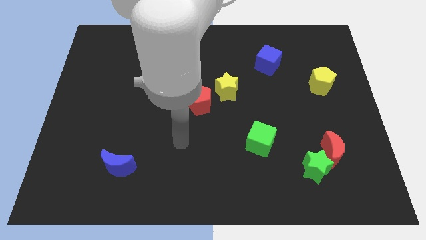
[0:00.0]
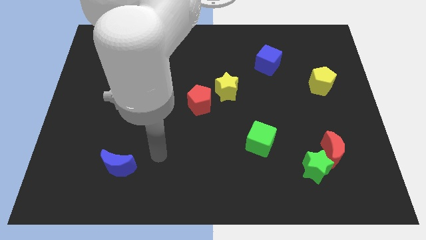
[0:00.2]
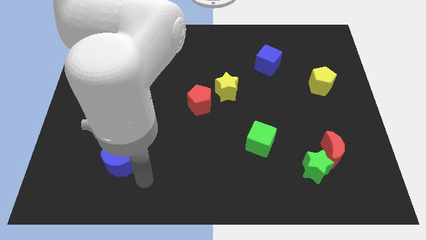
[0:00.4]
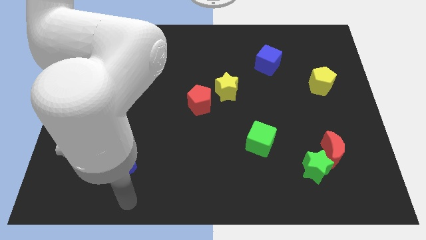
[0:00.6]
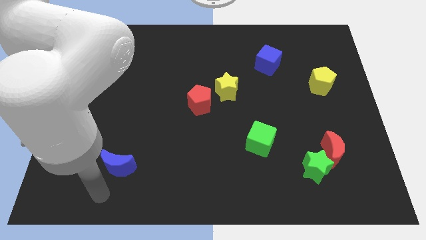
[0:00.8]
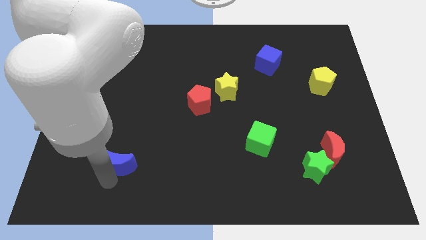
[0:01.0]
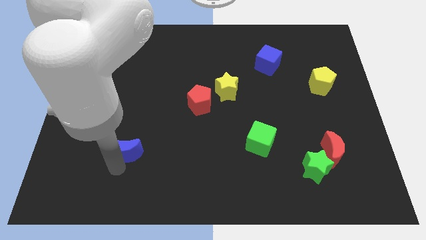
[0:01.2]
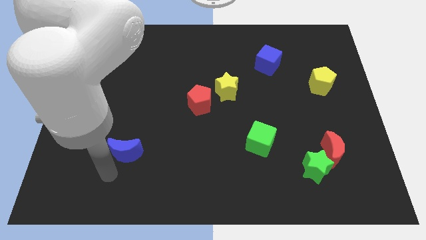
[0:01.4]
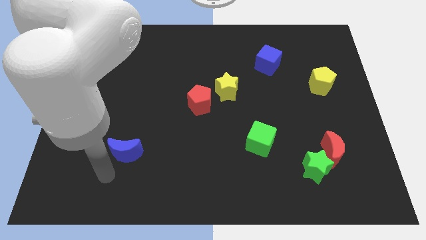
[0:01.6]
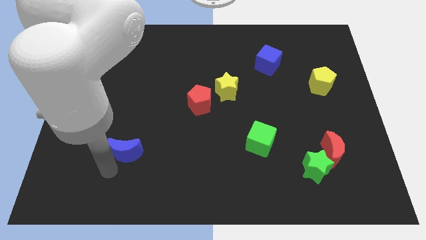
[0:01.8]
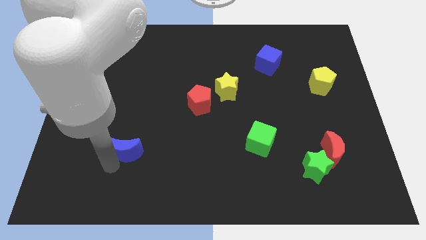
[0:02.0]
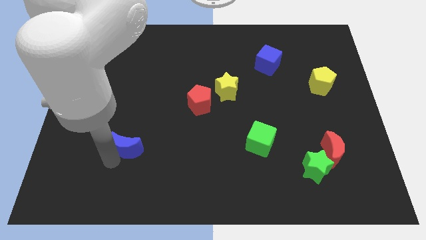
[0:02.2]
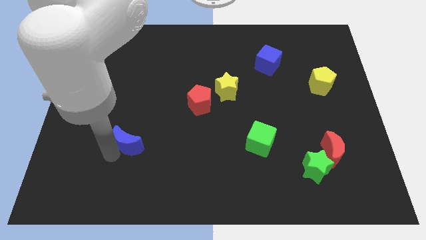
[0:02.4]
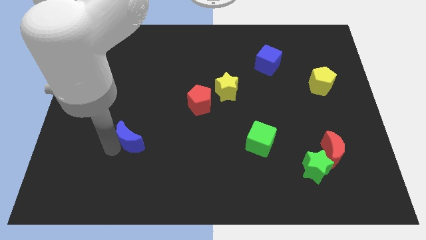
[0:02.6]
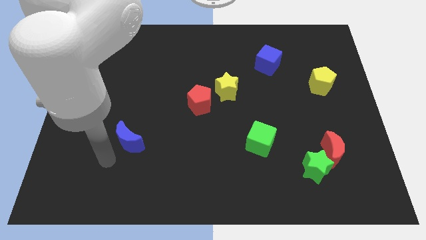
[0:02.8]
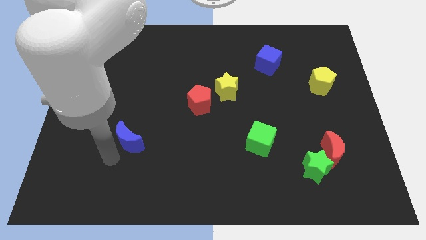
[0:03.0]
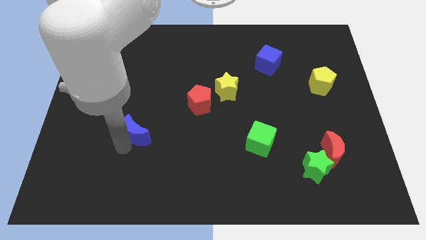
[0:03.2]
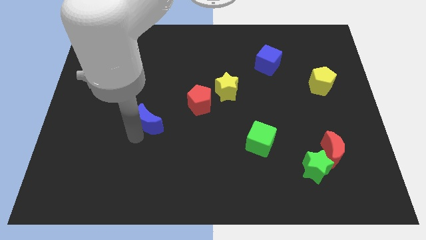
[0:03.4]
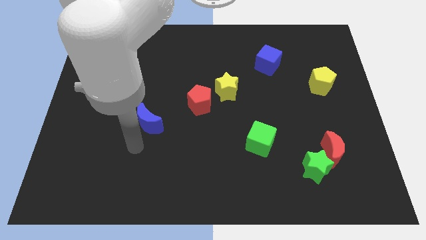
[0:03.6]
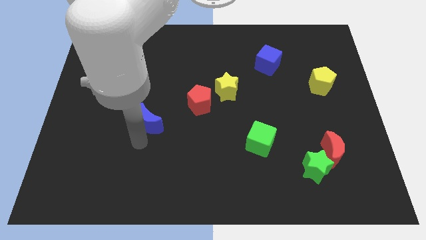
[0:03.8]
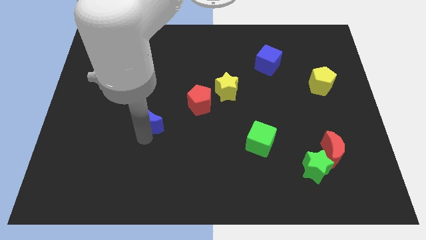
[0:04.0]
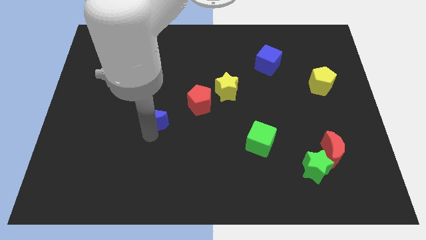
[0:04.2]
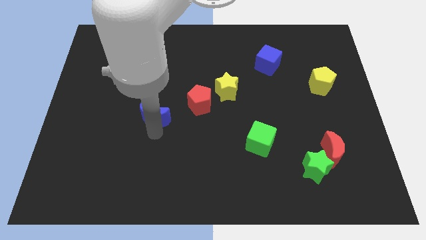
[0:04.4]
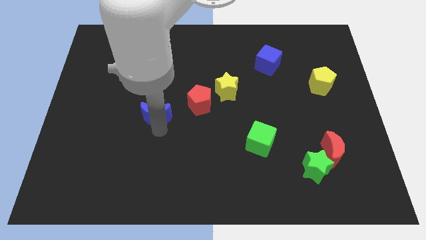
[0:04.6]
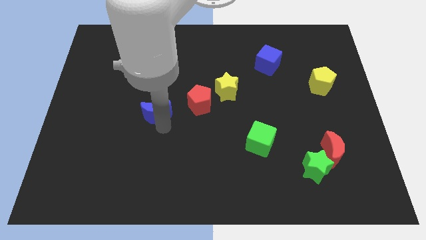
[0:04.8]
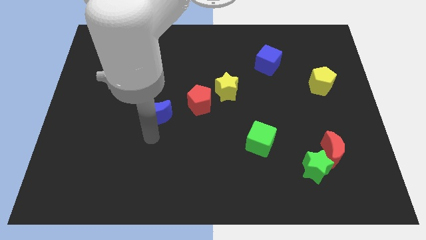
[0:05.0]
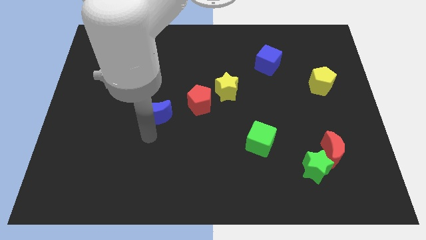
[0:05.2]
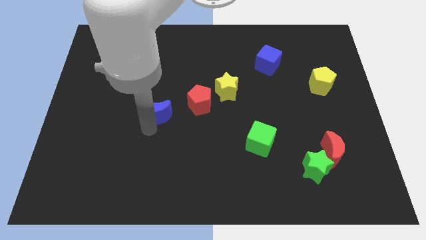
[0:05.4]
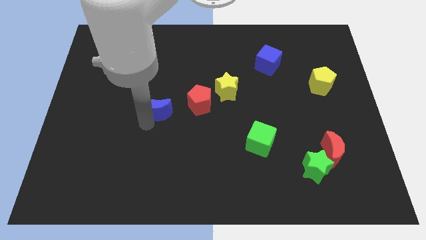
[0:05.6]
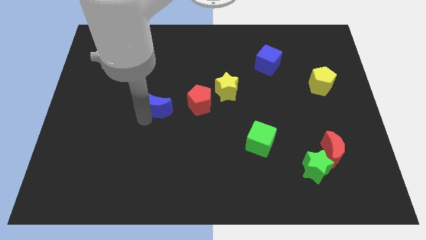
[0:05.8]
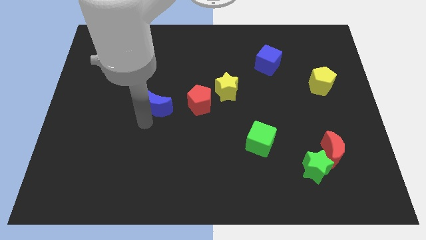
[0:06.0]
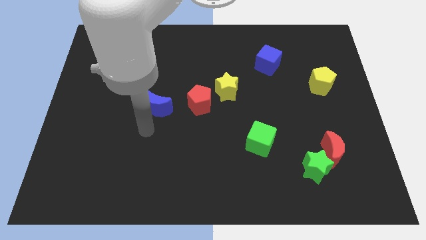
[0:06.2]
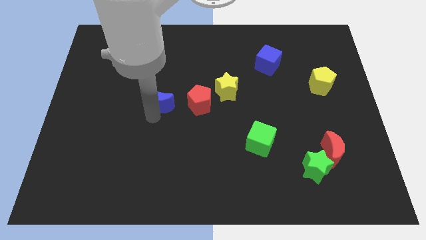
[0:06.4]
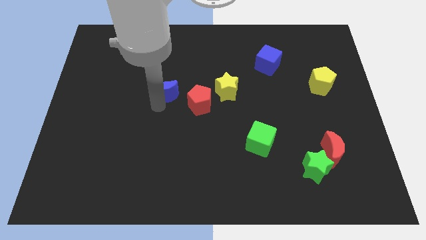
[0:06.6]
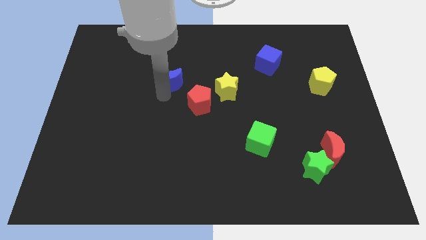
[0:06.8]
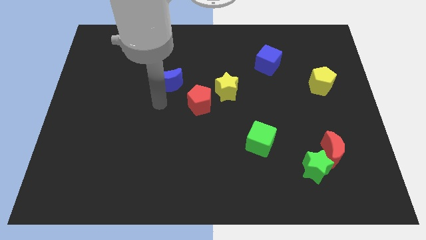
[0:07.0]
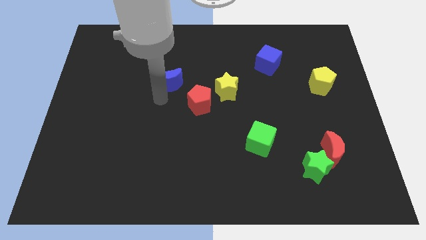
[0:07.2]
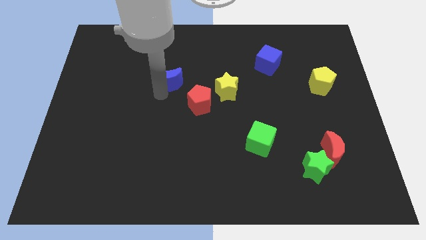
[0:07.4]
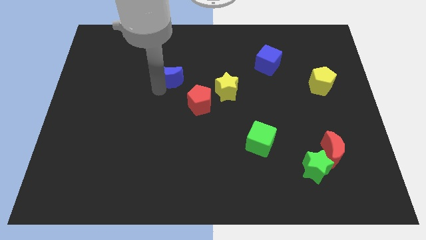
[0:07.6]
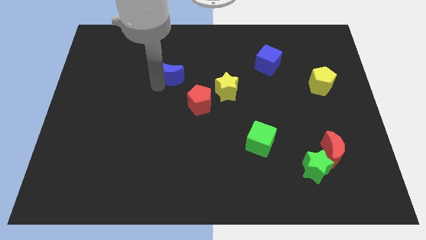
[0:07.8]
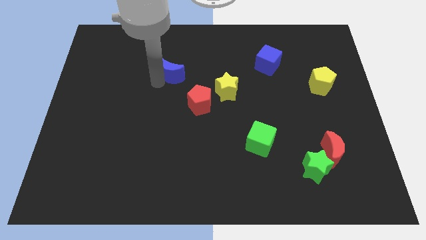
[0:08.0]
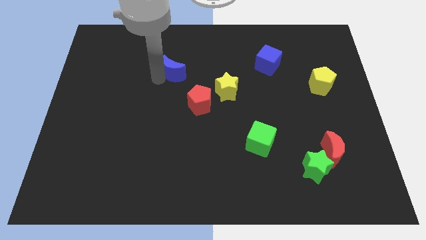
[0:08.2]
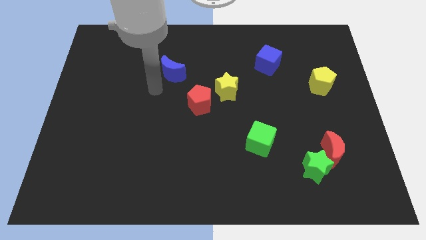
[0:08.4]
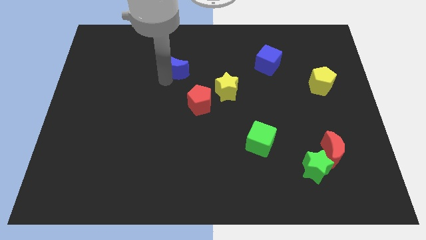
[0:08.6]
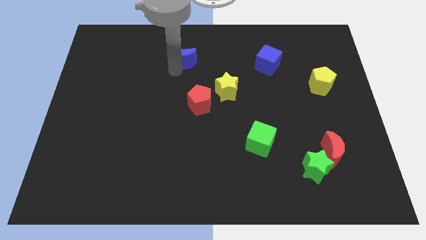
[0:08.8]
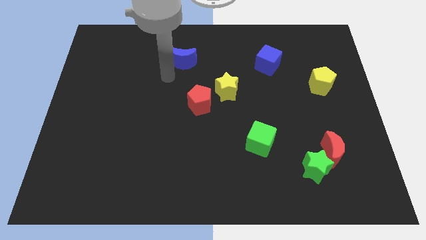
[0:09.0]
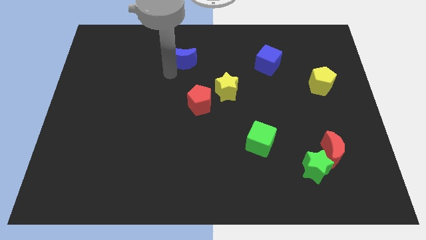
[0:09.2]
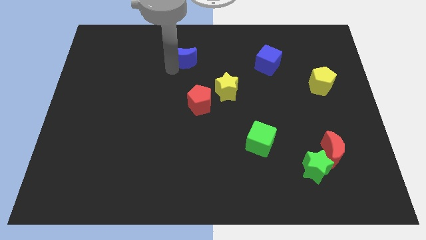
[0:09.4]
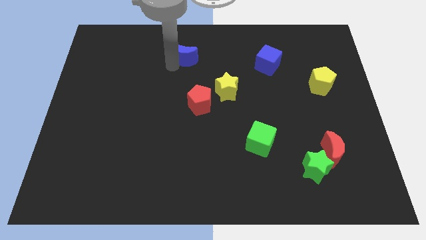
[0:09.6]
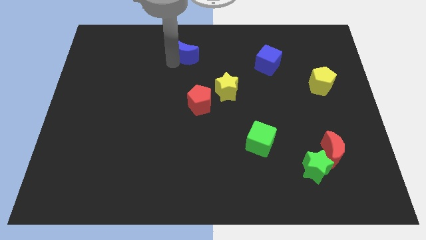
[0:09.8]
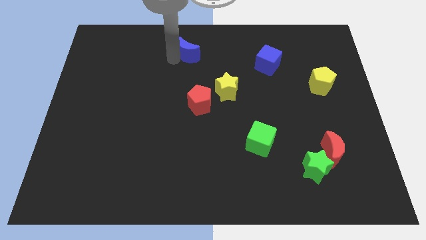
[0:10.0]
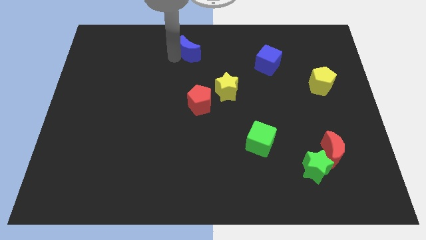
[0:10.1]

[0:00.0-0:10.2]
move the blue moon to the top side
